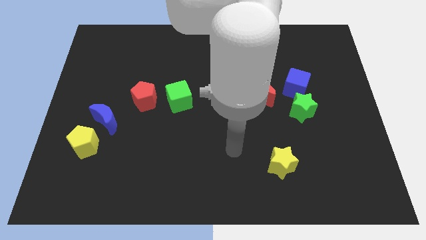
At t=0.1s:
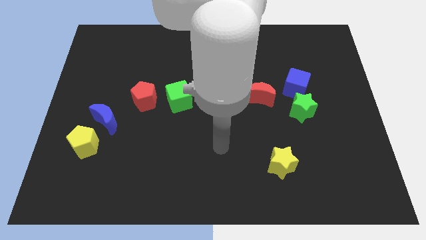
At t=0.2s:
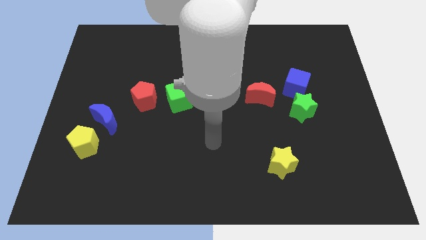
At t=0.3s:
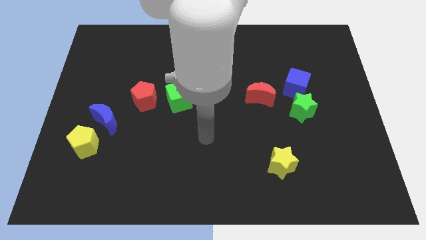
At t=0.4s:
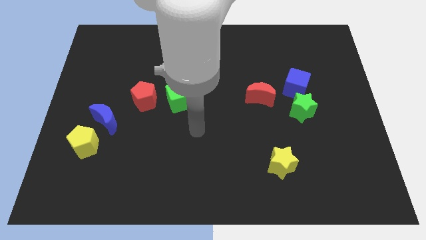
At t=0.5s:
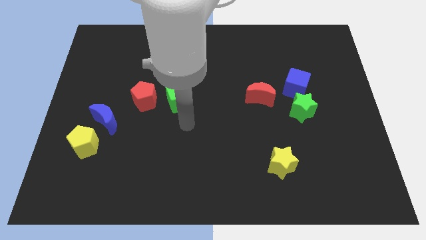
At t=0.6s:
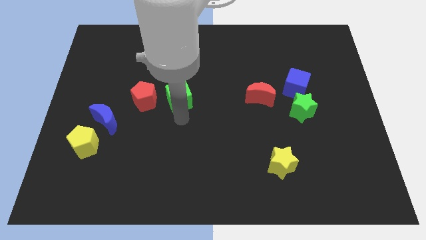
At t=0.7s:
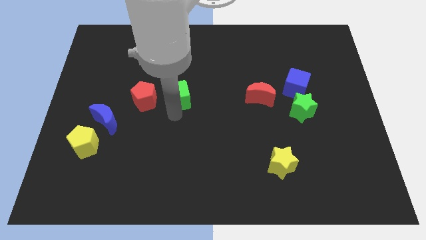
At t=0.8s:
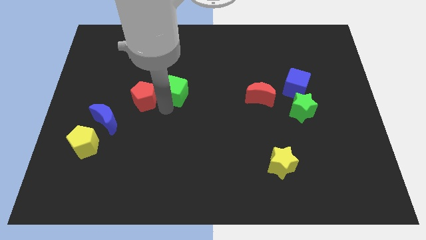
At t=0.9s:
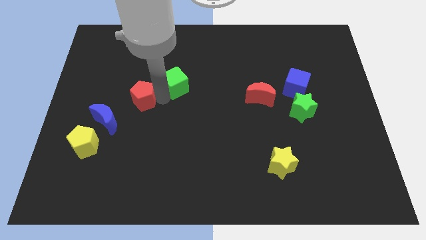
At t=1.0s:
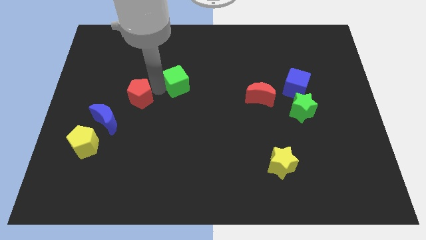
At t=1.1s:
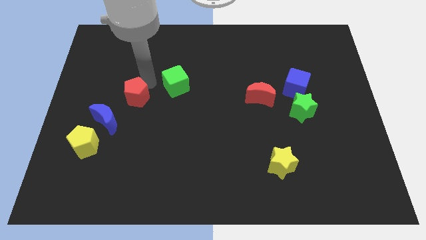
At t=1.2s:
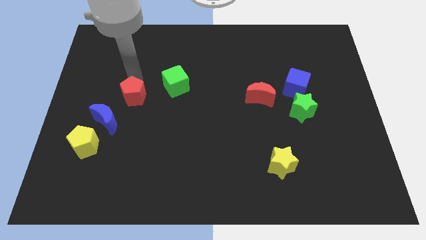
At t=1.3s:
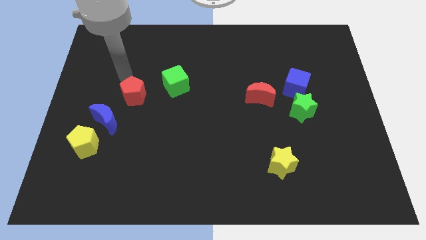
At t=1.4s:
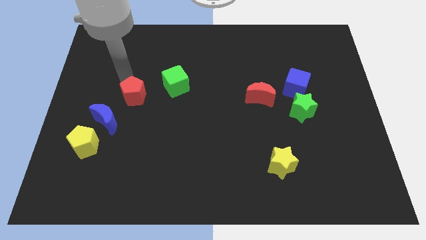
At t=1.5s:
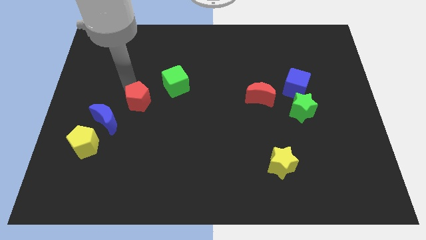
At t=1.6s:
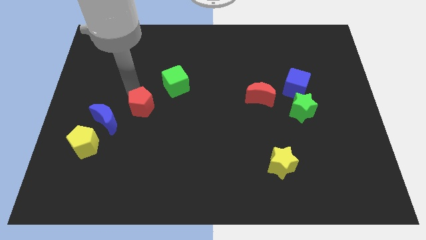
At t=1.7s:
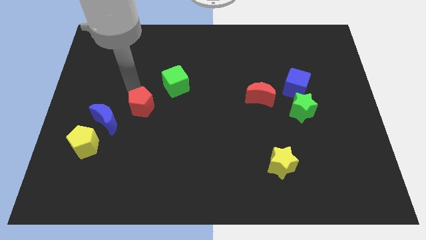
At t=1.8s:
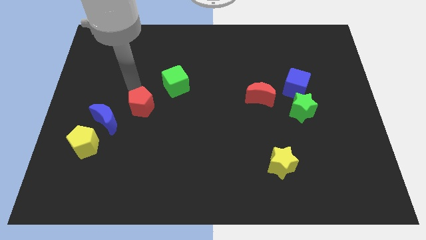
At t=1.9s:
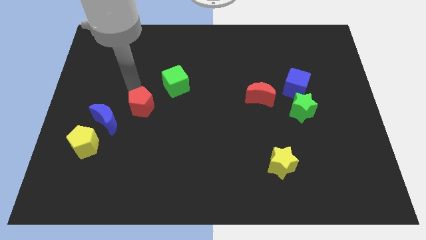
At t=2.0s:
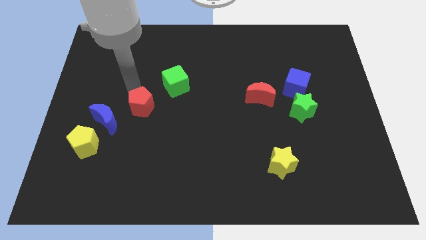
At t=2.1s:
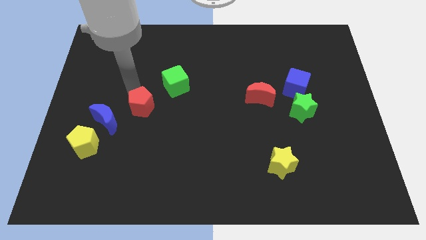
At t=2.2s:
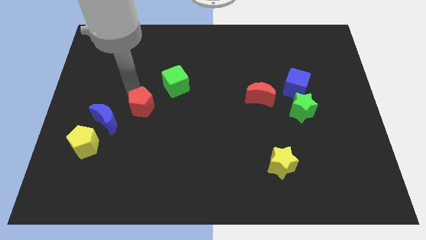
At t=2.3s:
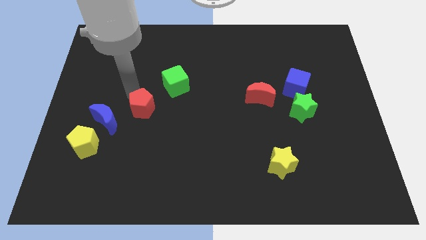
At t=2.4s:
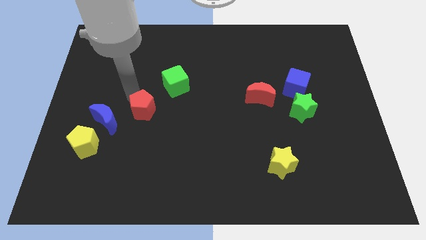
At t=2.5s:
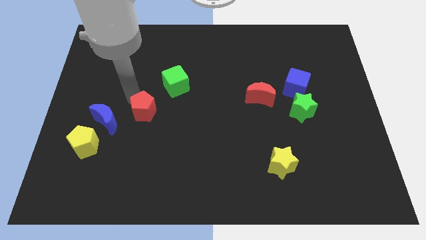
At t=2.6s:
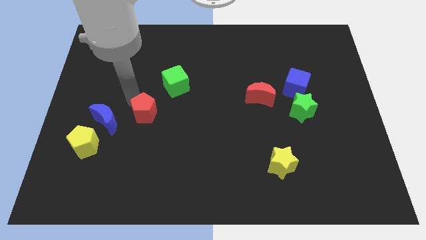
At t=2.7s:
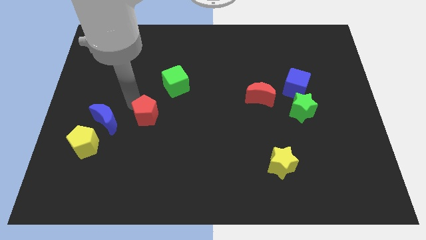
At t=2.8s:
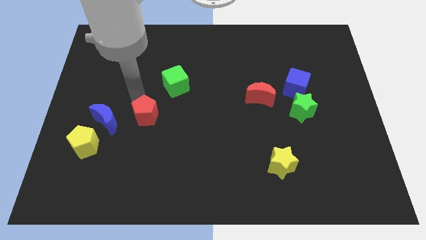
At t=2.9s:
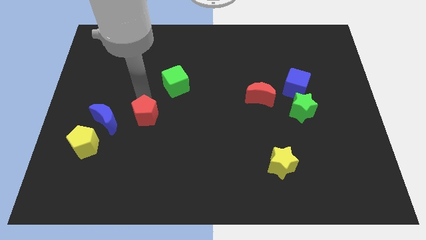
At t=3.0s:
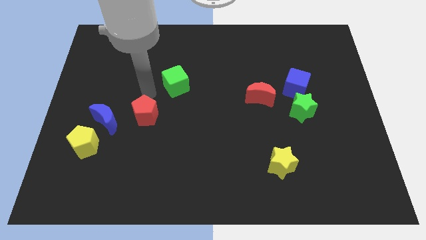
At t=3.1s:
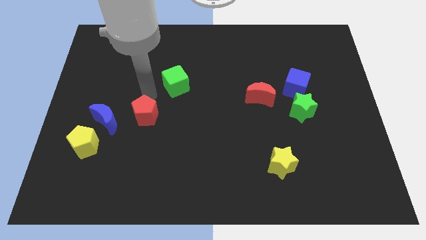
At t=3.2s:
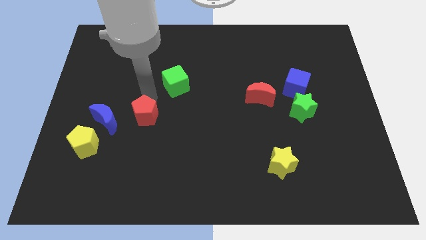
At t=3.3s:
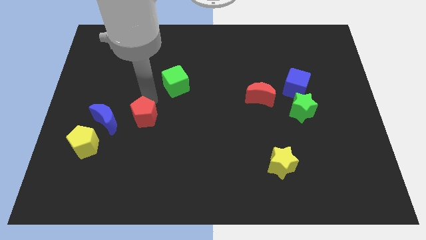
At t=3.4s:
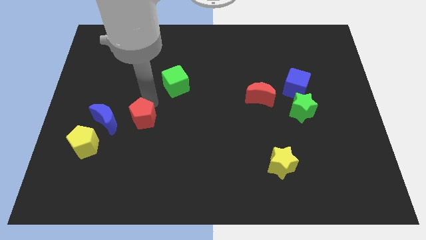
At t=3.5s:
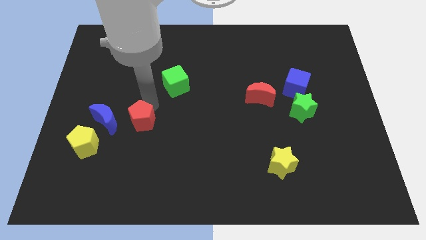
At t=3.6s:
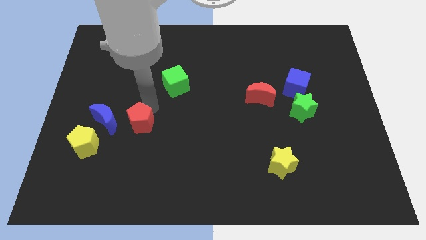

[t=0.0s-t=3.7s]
push the red pentagon somewhat downwards

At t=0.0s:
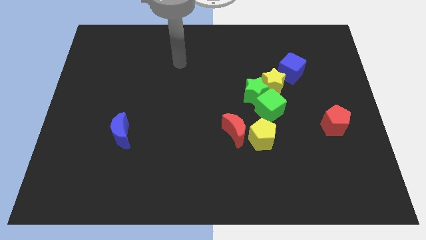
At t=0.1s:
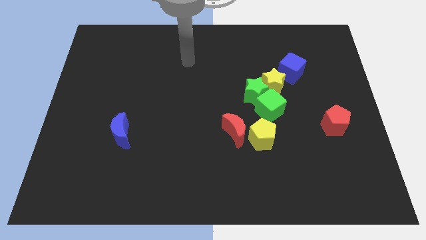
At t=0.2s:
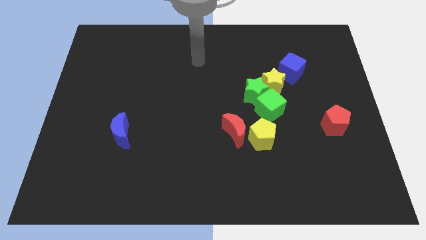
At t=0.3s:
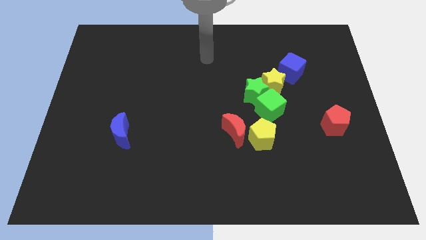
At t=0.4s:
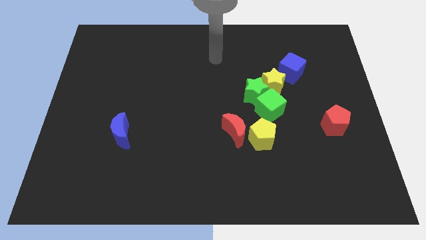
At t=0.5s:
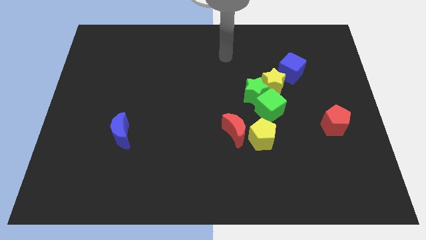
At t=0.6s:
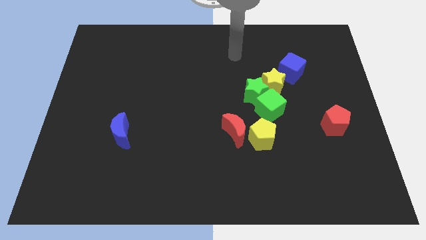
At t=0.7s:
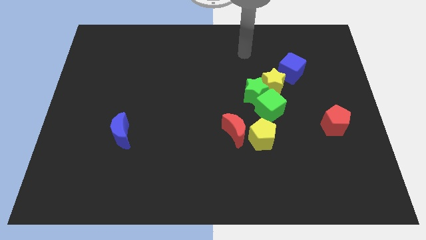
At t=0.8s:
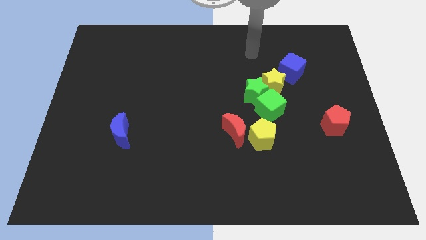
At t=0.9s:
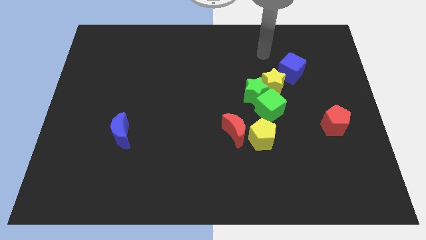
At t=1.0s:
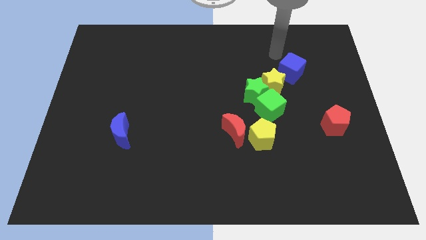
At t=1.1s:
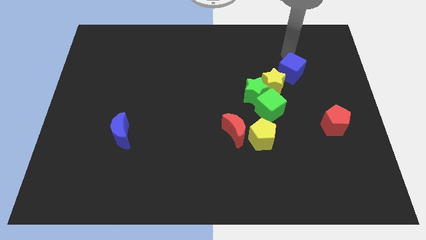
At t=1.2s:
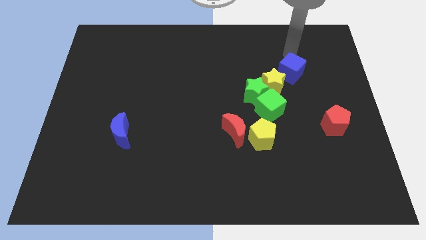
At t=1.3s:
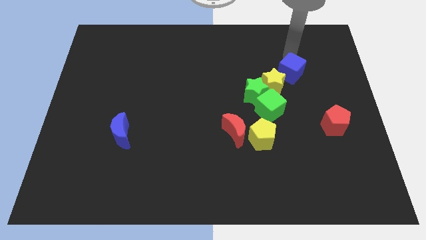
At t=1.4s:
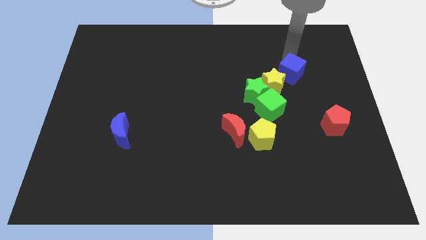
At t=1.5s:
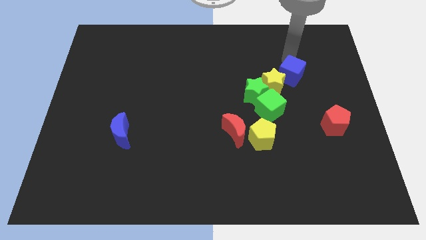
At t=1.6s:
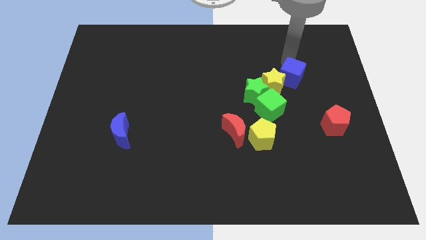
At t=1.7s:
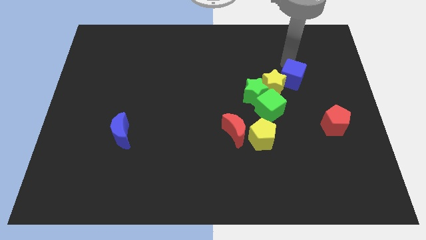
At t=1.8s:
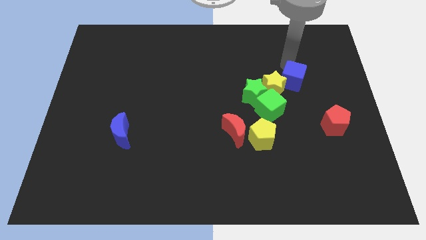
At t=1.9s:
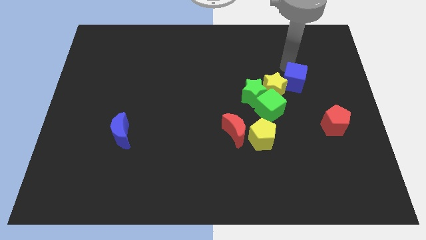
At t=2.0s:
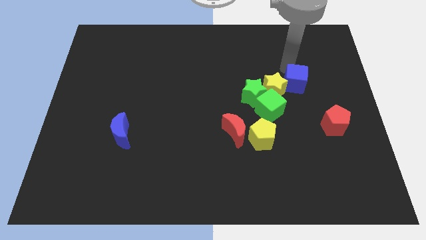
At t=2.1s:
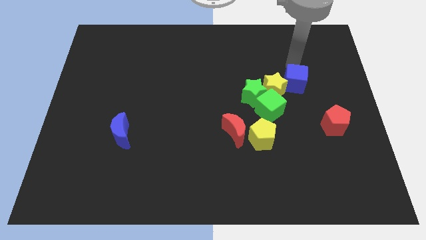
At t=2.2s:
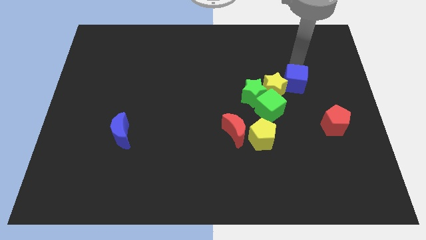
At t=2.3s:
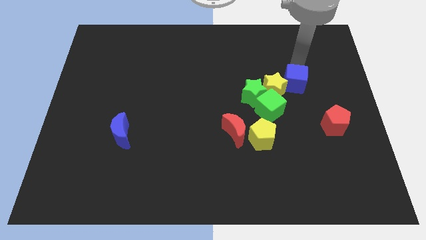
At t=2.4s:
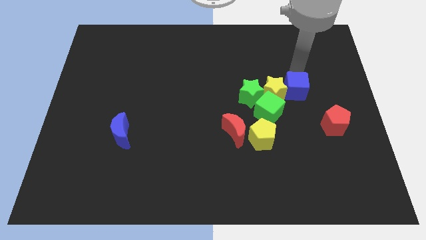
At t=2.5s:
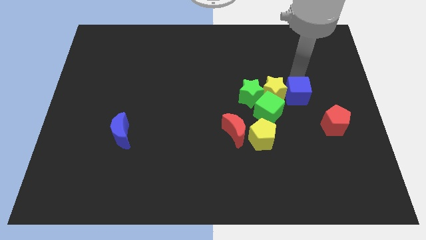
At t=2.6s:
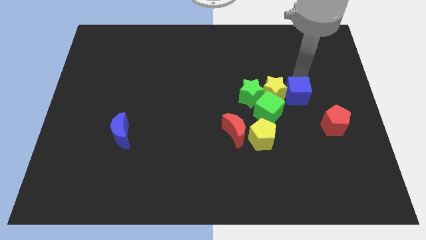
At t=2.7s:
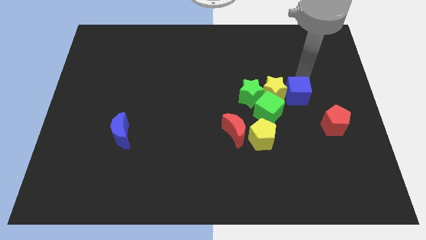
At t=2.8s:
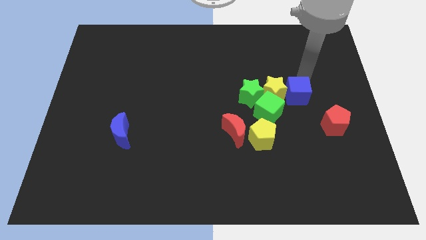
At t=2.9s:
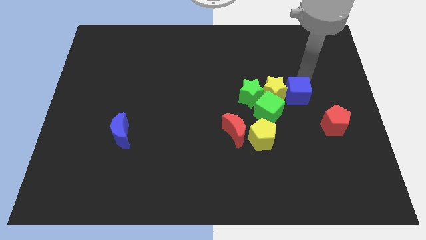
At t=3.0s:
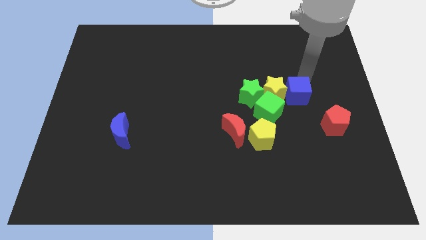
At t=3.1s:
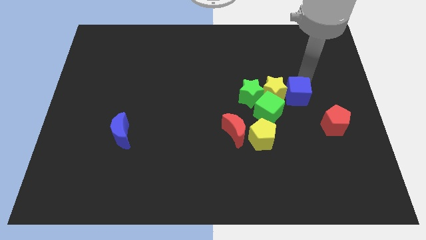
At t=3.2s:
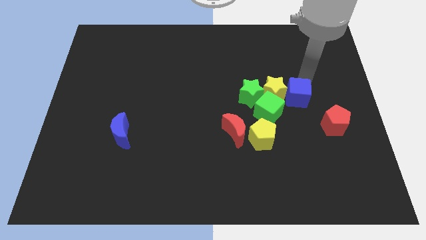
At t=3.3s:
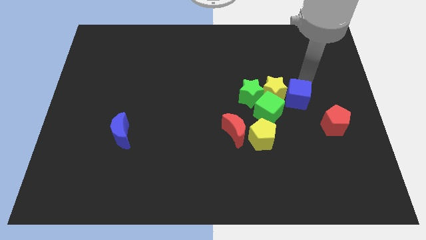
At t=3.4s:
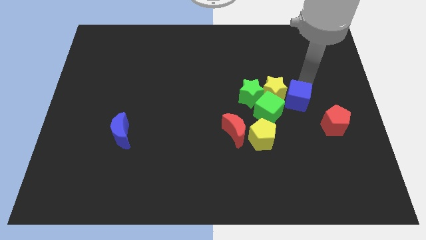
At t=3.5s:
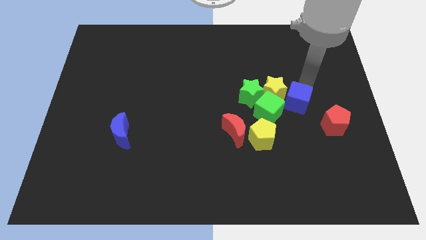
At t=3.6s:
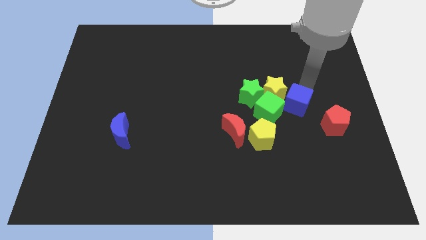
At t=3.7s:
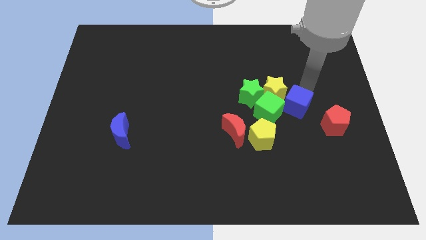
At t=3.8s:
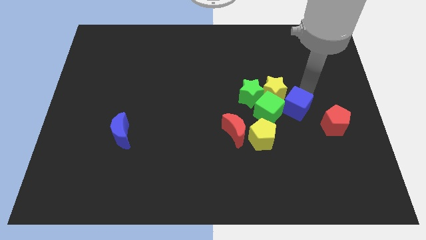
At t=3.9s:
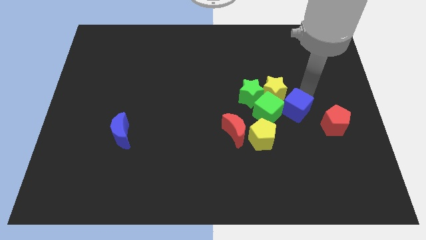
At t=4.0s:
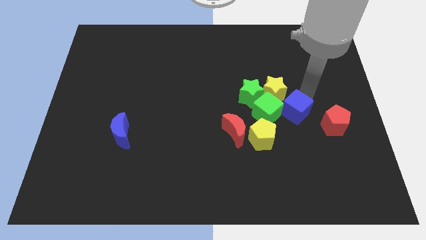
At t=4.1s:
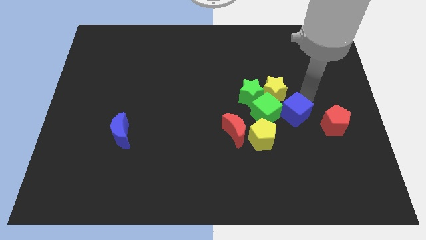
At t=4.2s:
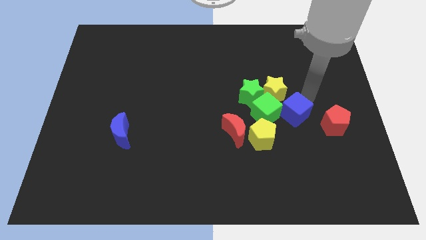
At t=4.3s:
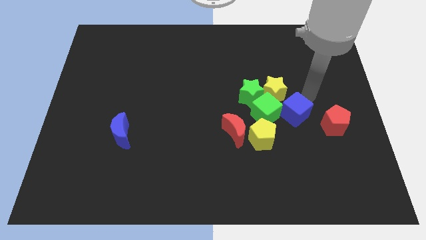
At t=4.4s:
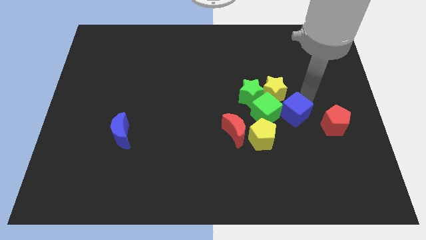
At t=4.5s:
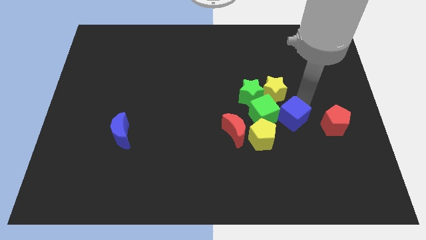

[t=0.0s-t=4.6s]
move the blue cube slightly diagonally downwards and to the left
